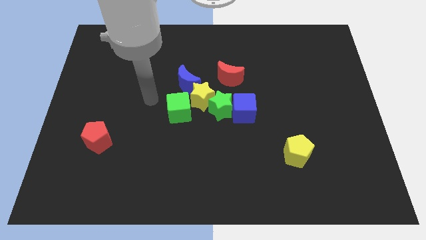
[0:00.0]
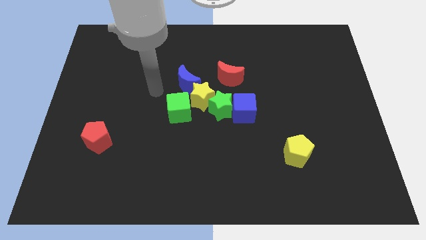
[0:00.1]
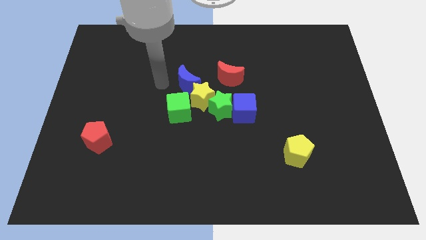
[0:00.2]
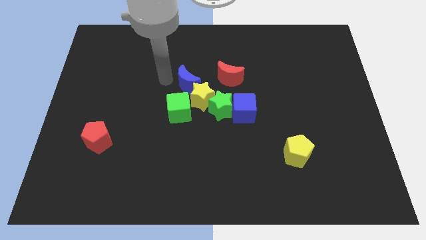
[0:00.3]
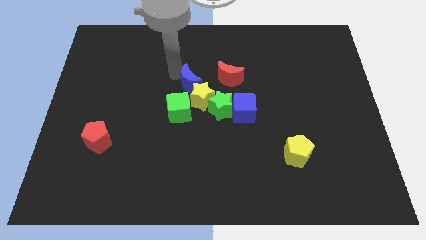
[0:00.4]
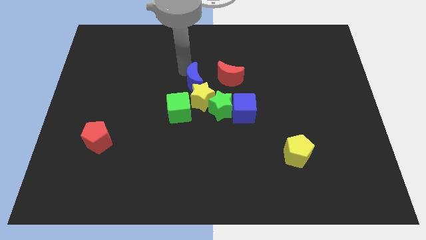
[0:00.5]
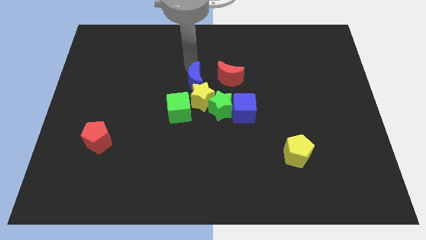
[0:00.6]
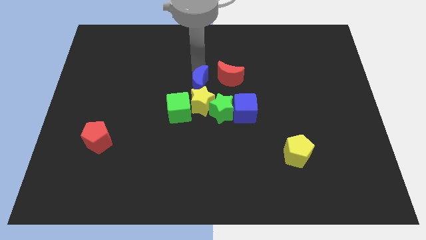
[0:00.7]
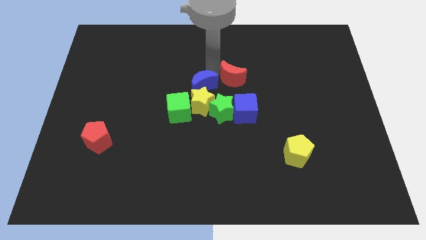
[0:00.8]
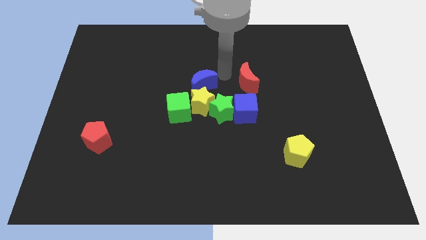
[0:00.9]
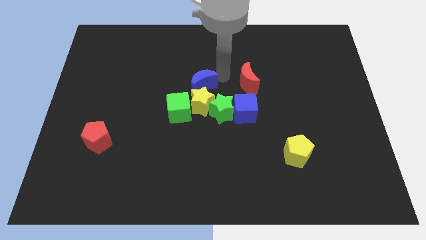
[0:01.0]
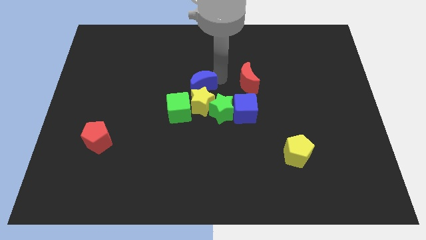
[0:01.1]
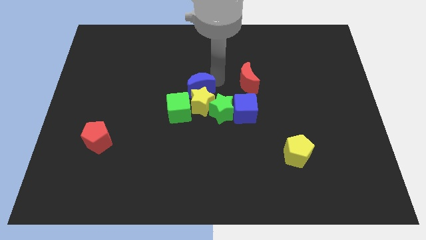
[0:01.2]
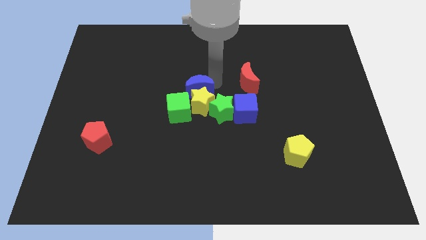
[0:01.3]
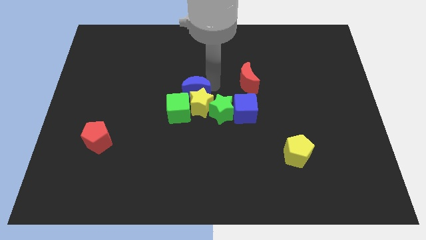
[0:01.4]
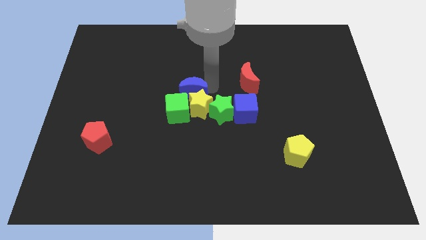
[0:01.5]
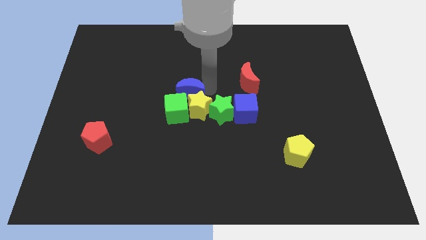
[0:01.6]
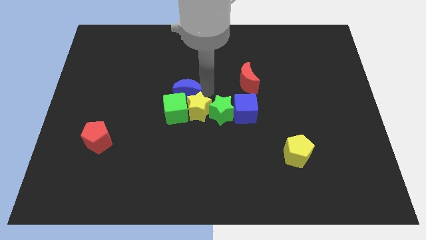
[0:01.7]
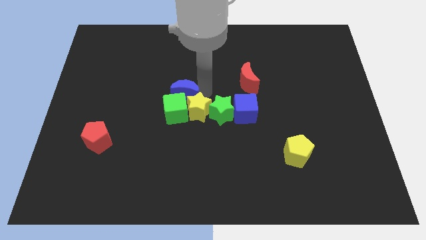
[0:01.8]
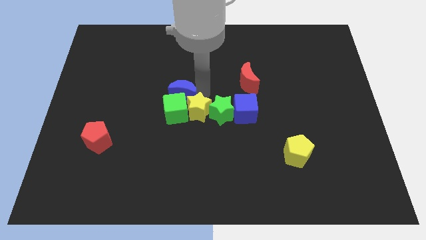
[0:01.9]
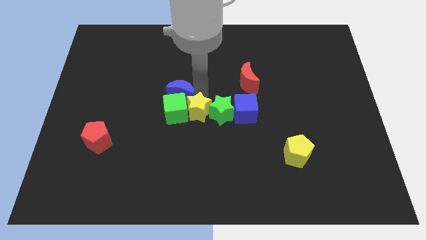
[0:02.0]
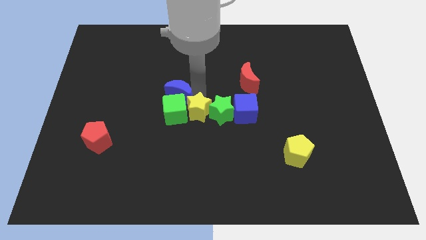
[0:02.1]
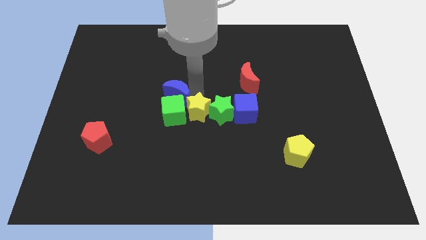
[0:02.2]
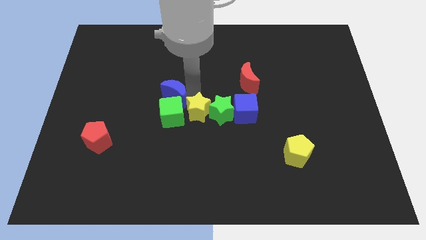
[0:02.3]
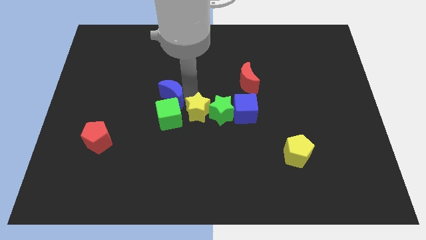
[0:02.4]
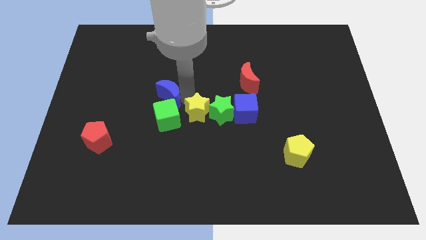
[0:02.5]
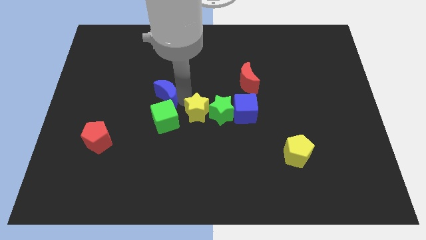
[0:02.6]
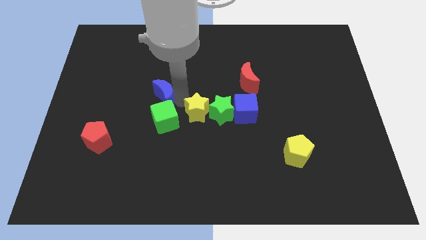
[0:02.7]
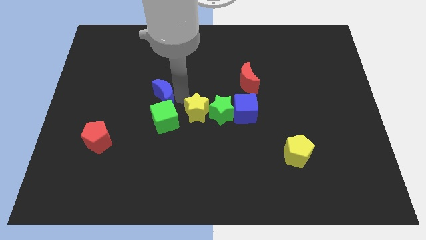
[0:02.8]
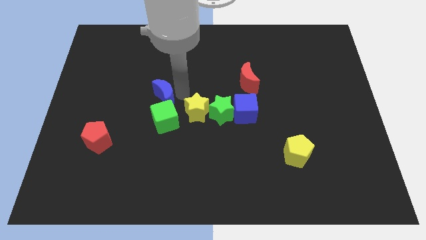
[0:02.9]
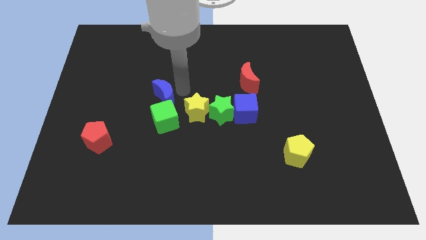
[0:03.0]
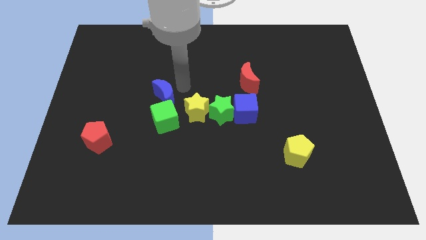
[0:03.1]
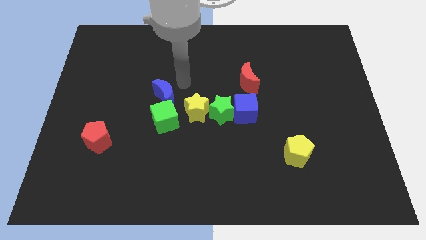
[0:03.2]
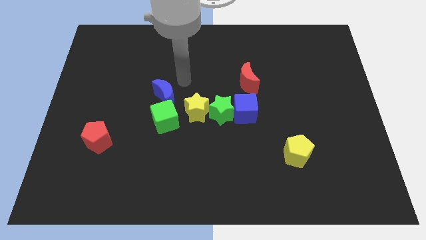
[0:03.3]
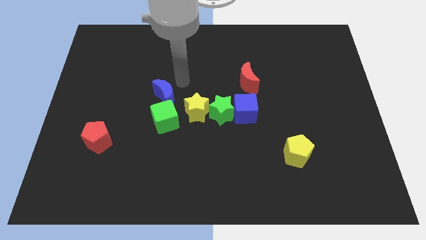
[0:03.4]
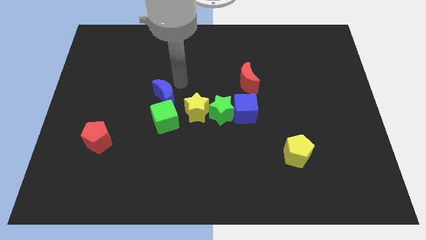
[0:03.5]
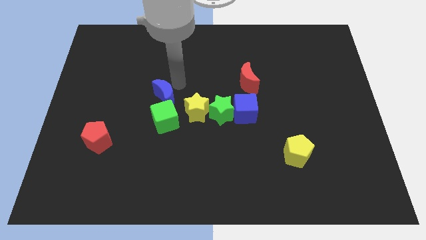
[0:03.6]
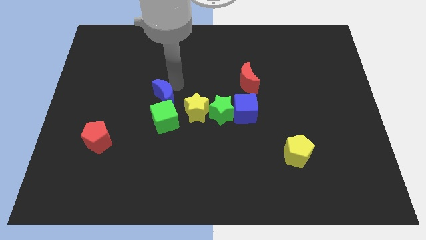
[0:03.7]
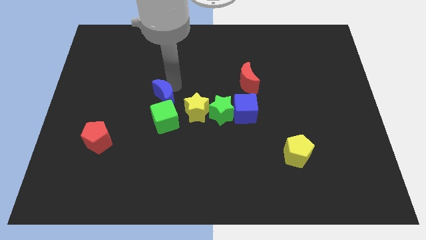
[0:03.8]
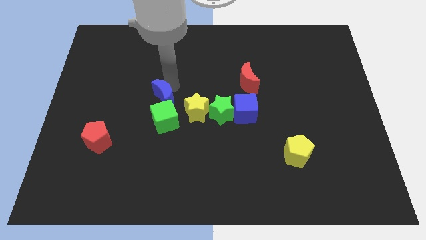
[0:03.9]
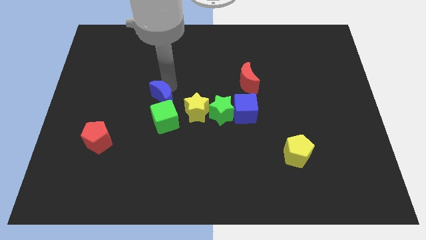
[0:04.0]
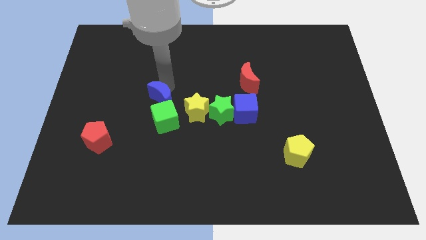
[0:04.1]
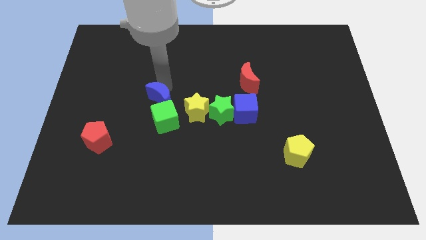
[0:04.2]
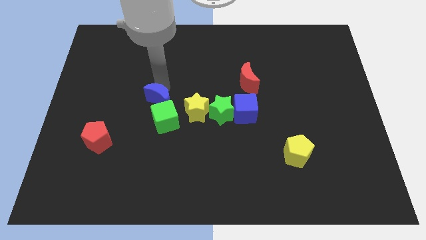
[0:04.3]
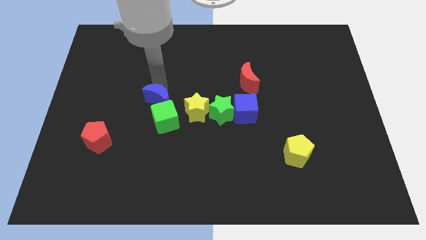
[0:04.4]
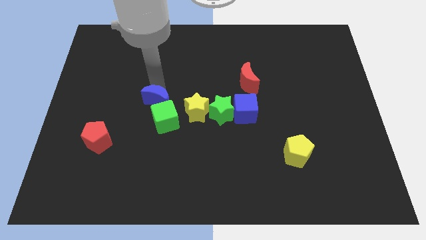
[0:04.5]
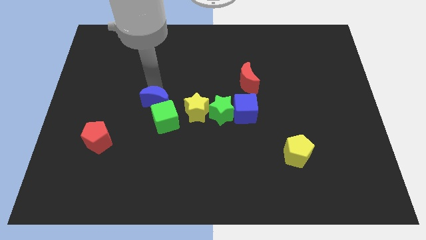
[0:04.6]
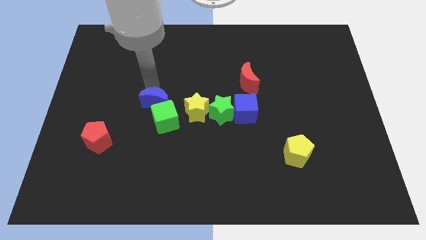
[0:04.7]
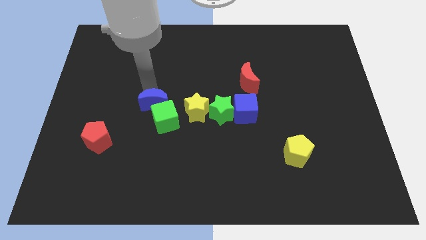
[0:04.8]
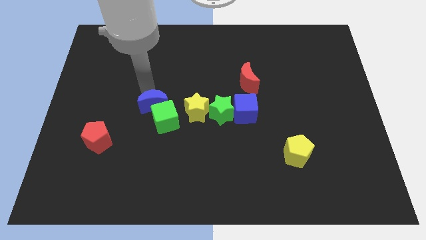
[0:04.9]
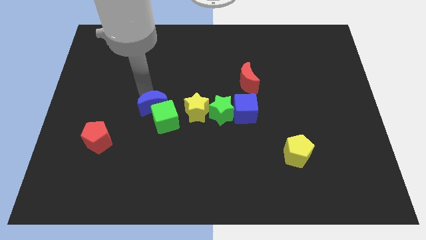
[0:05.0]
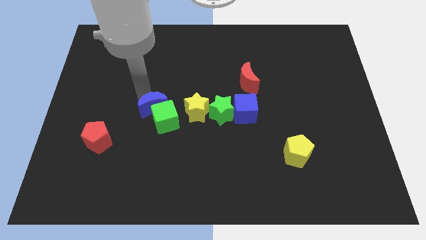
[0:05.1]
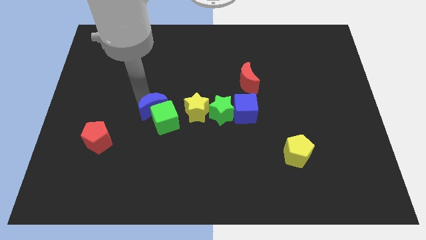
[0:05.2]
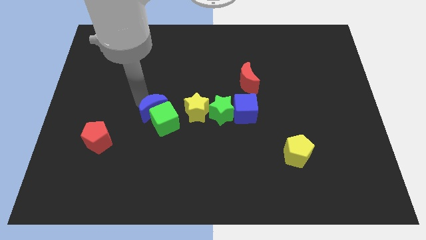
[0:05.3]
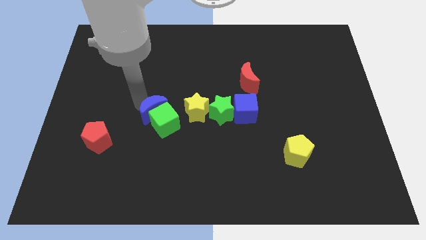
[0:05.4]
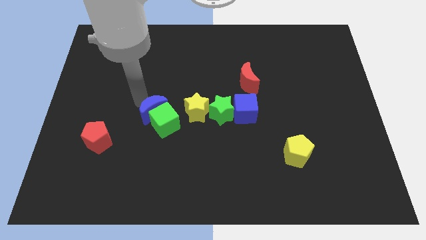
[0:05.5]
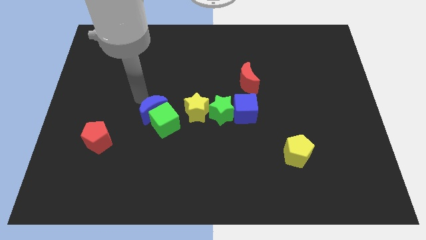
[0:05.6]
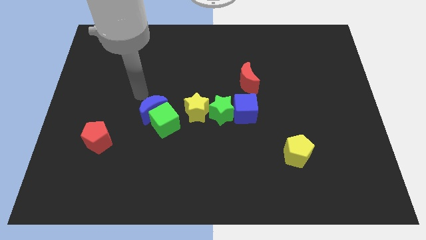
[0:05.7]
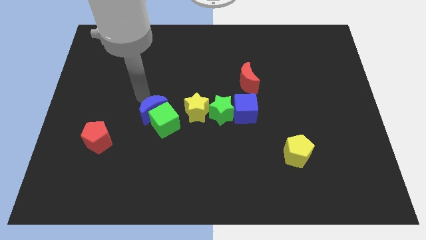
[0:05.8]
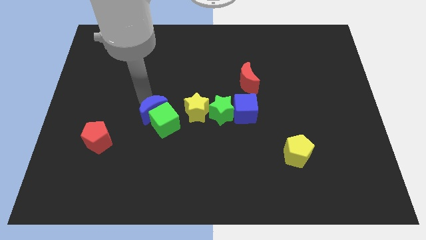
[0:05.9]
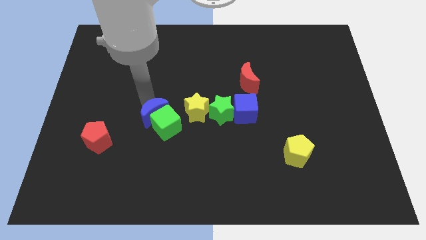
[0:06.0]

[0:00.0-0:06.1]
move the blue moon down a bit

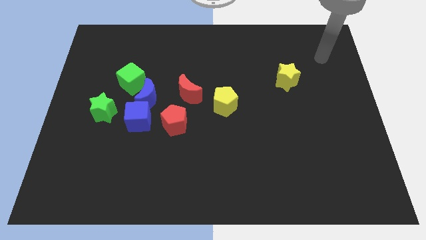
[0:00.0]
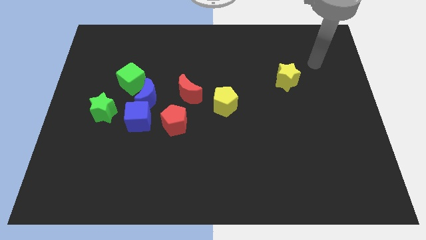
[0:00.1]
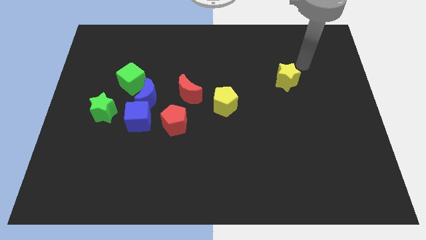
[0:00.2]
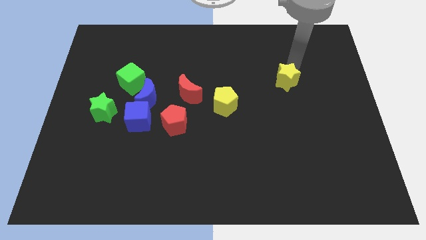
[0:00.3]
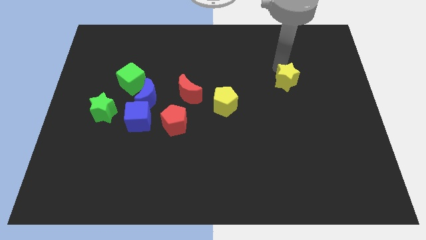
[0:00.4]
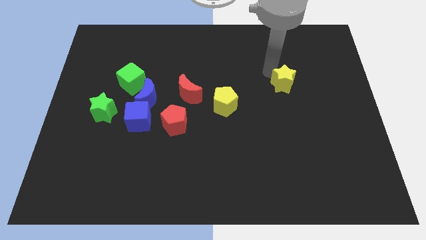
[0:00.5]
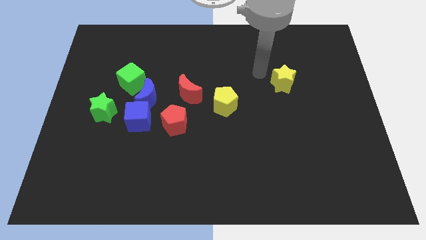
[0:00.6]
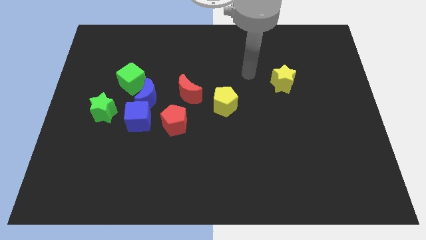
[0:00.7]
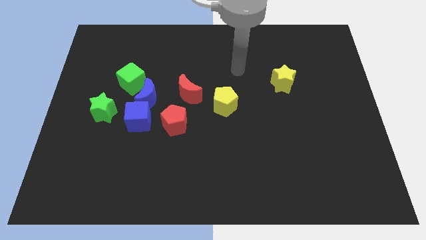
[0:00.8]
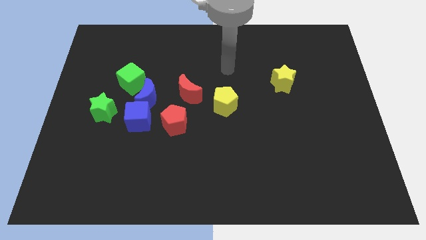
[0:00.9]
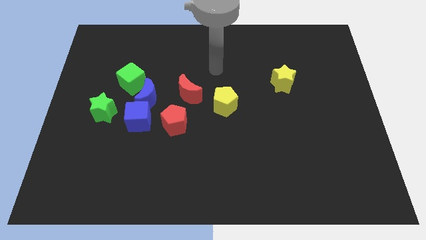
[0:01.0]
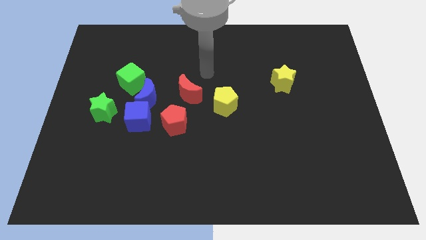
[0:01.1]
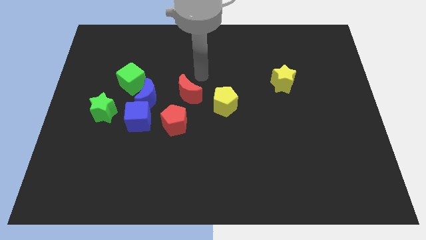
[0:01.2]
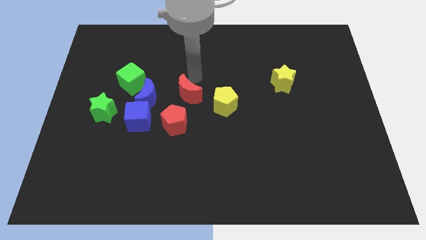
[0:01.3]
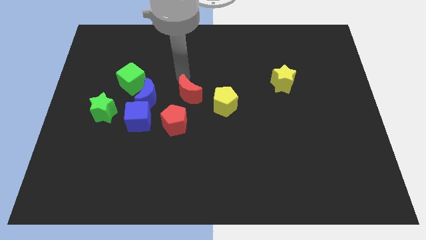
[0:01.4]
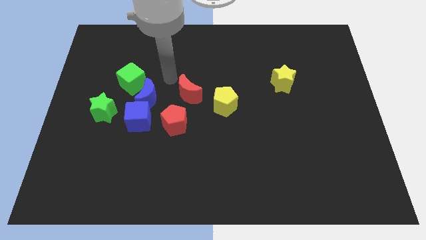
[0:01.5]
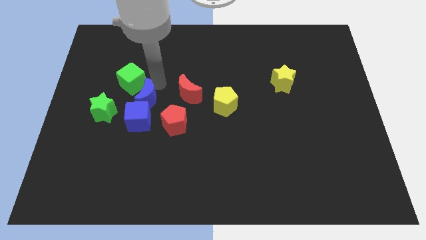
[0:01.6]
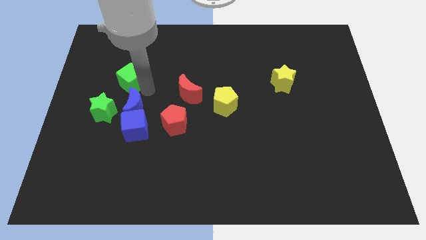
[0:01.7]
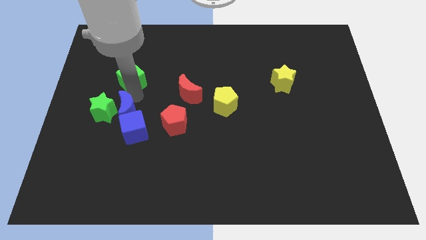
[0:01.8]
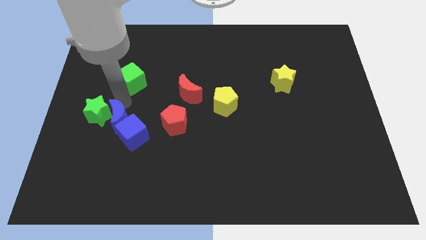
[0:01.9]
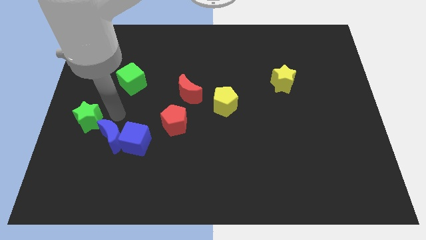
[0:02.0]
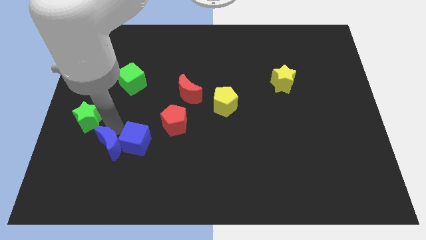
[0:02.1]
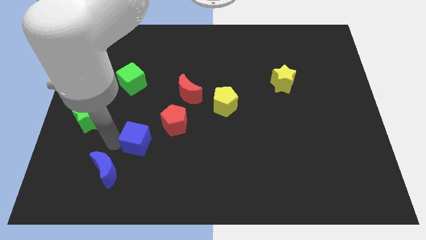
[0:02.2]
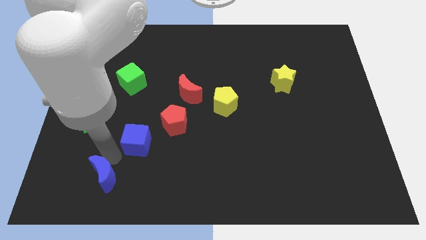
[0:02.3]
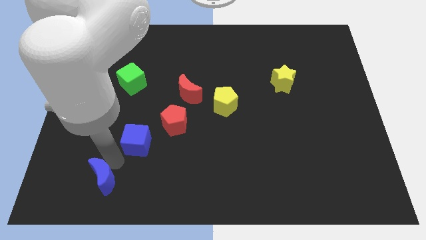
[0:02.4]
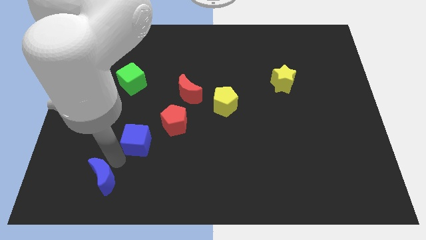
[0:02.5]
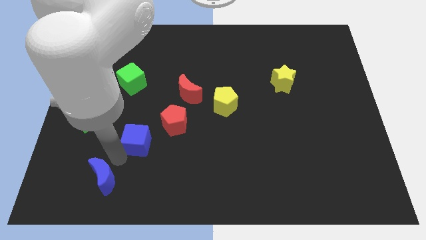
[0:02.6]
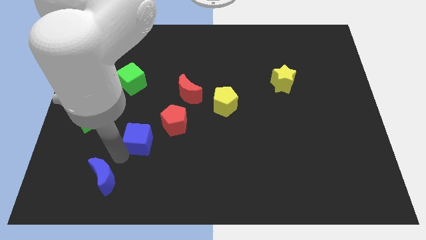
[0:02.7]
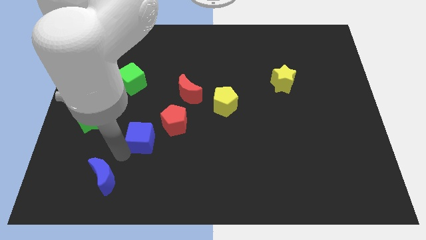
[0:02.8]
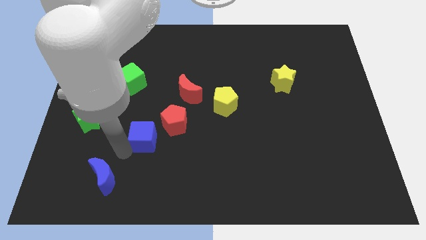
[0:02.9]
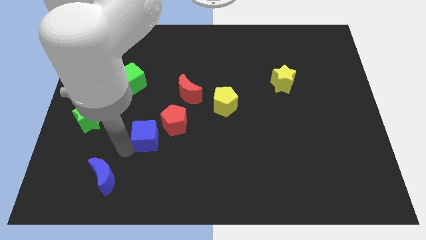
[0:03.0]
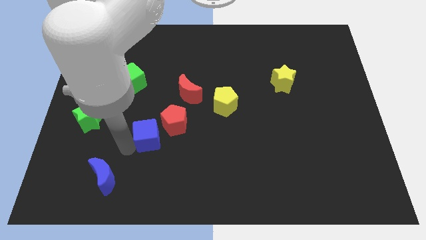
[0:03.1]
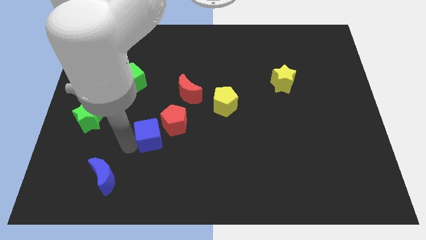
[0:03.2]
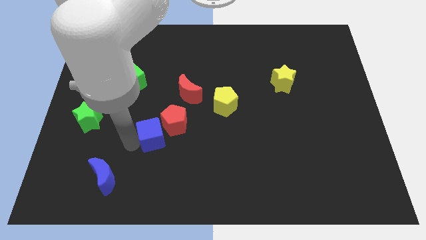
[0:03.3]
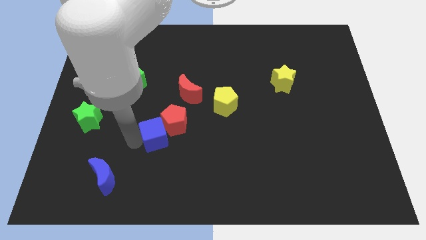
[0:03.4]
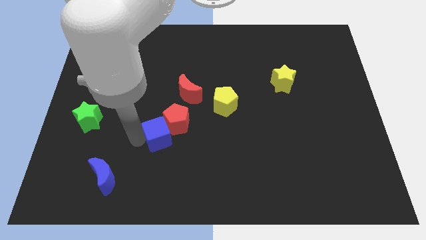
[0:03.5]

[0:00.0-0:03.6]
slightly move the blue cube downwards and right
